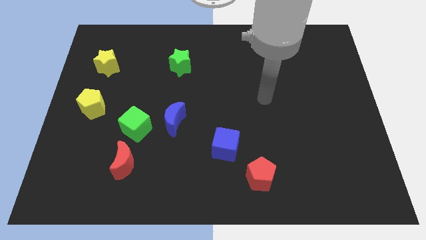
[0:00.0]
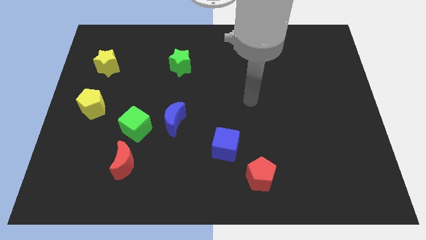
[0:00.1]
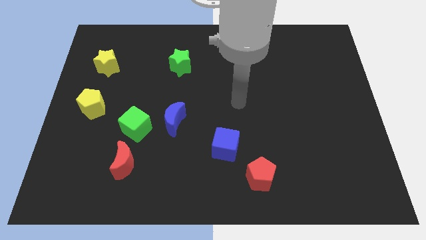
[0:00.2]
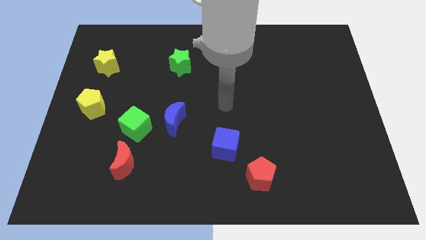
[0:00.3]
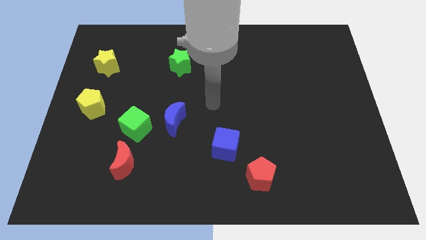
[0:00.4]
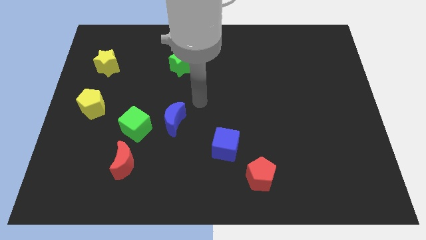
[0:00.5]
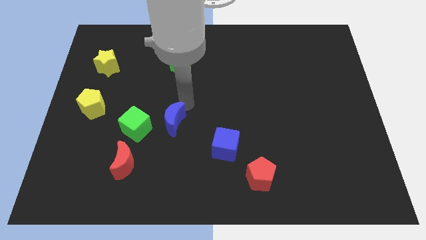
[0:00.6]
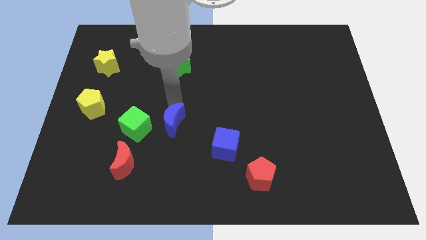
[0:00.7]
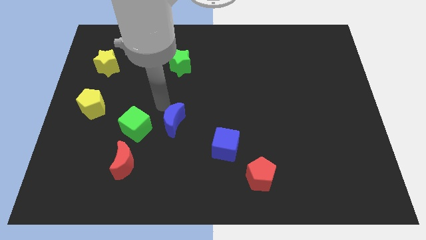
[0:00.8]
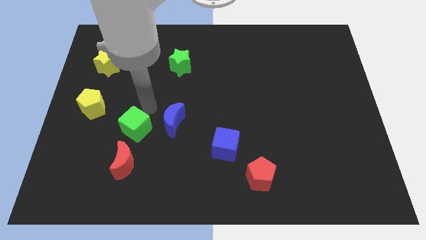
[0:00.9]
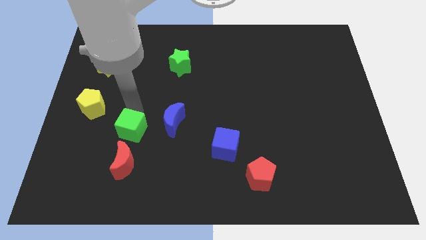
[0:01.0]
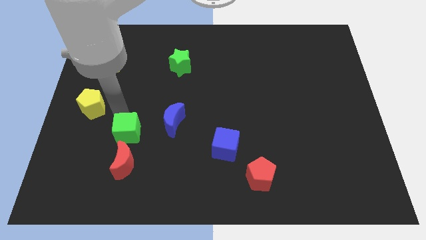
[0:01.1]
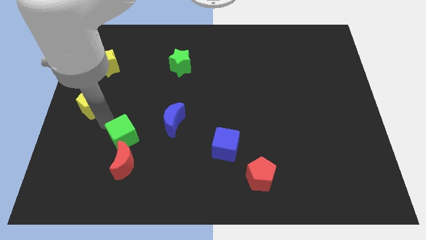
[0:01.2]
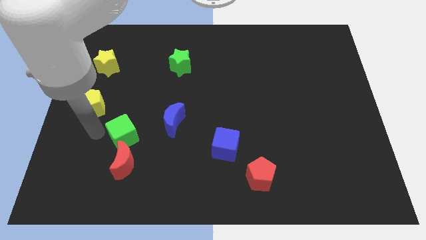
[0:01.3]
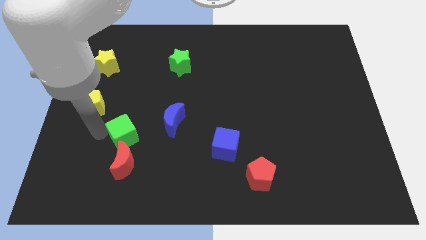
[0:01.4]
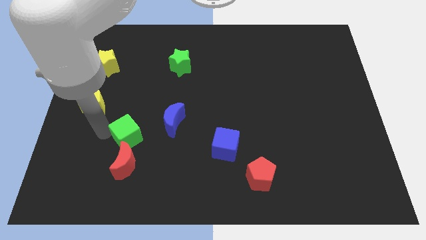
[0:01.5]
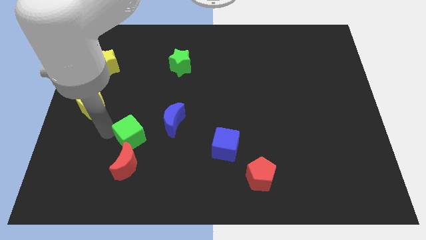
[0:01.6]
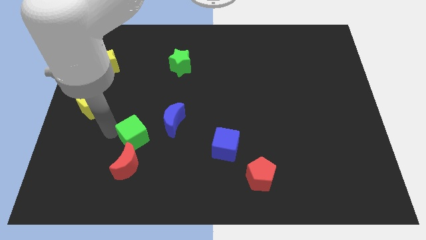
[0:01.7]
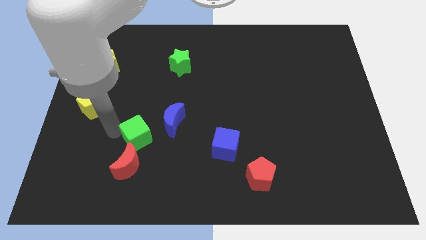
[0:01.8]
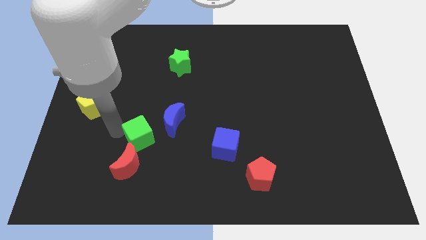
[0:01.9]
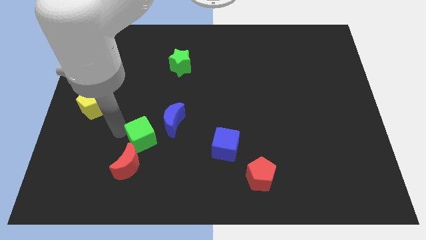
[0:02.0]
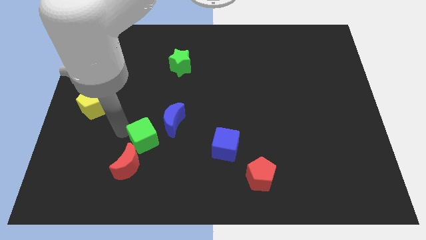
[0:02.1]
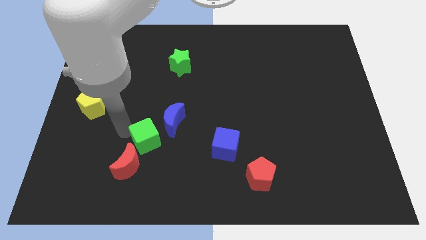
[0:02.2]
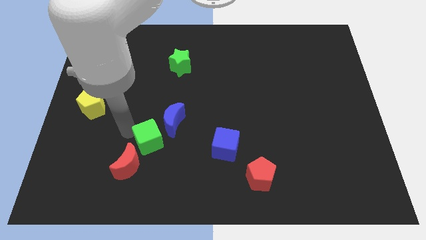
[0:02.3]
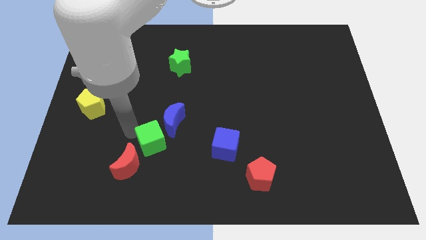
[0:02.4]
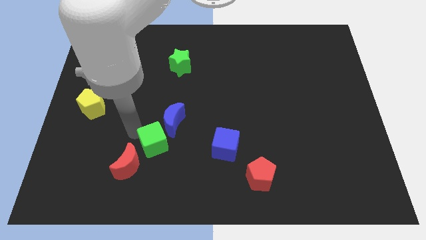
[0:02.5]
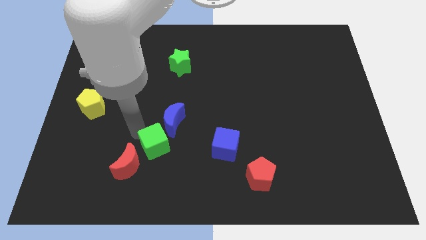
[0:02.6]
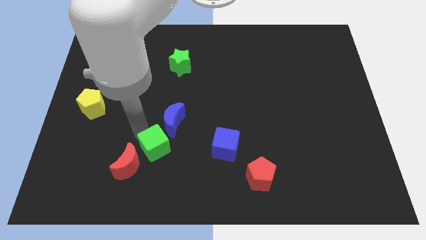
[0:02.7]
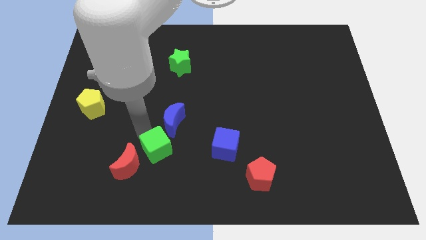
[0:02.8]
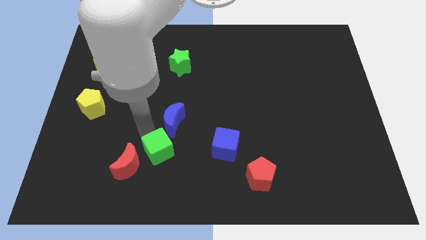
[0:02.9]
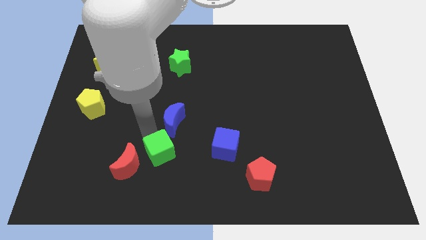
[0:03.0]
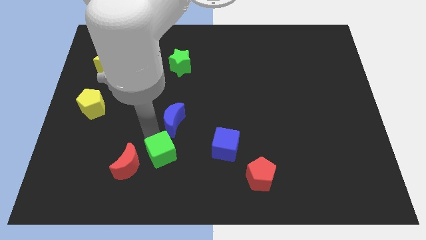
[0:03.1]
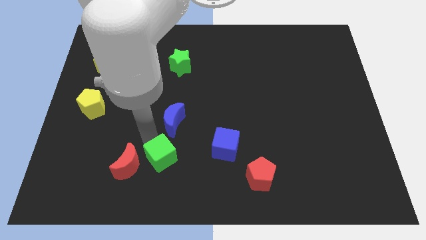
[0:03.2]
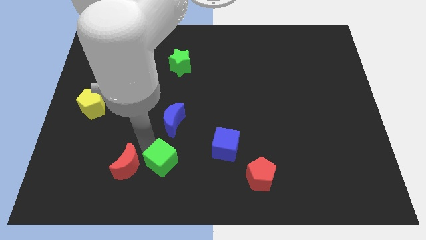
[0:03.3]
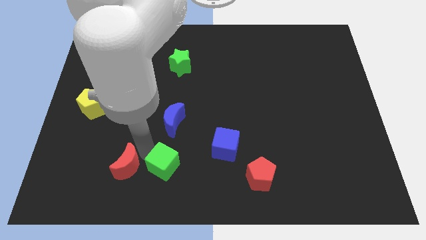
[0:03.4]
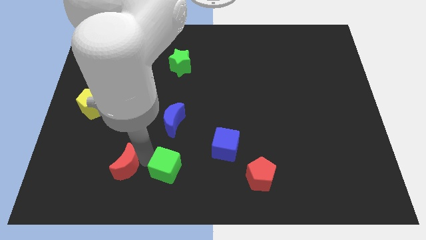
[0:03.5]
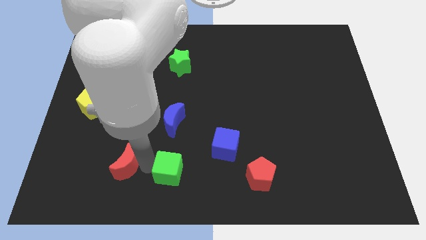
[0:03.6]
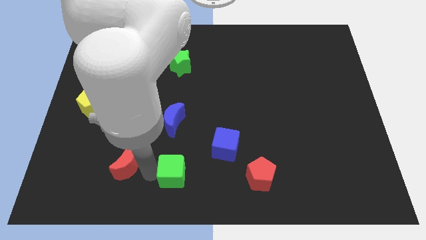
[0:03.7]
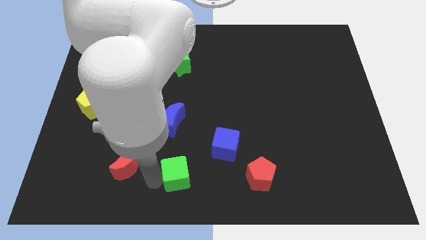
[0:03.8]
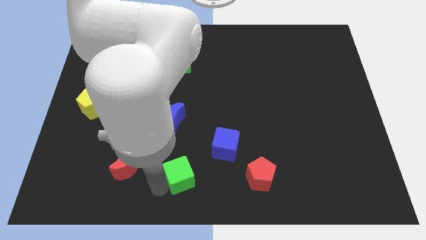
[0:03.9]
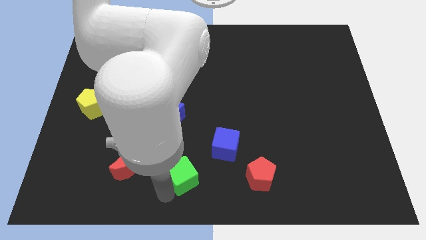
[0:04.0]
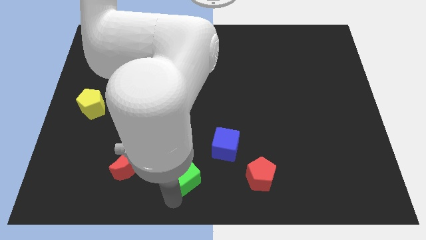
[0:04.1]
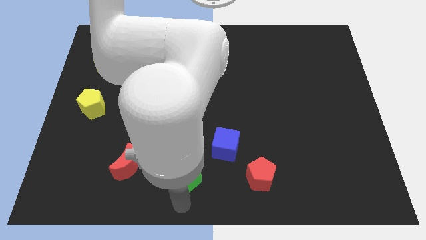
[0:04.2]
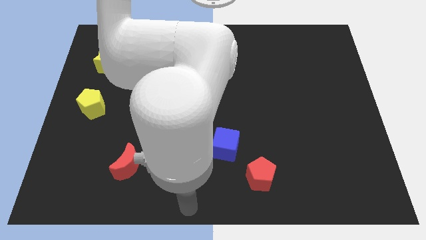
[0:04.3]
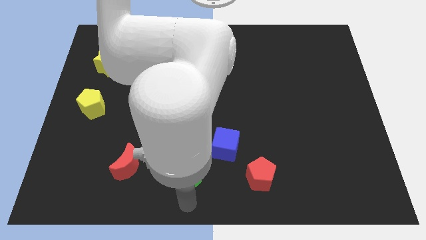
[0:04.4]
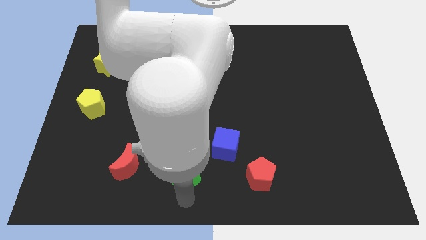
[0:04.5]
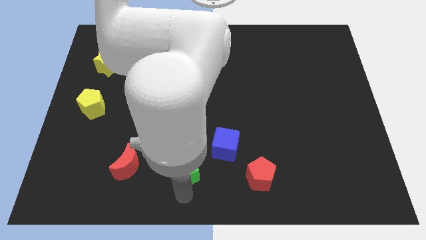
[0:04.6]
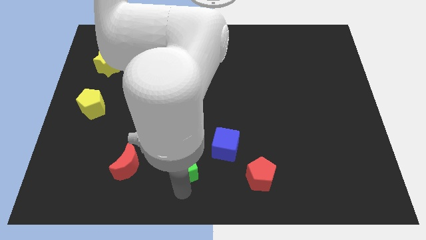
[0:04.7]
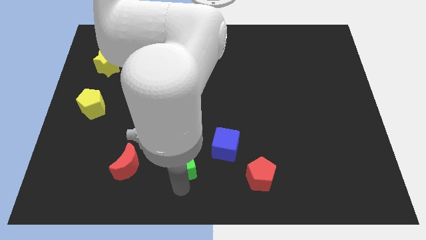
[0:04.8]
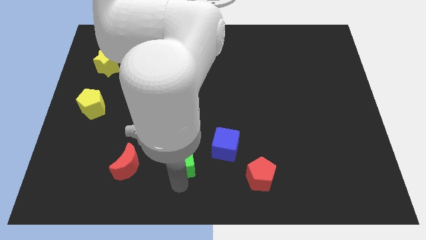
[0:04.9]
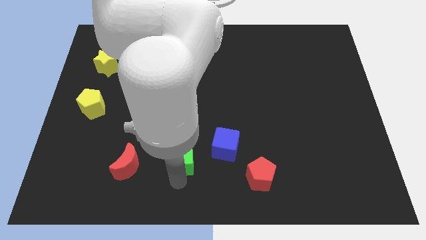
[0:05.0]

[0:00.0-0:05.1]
slide the green cube to the right a bit

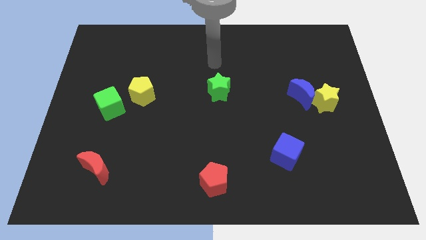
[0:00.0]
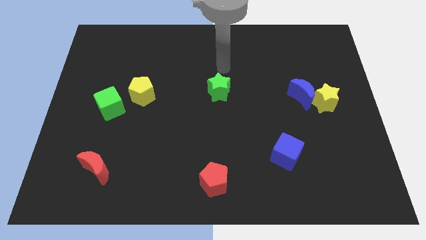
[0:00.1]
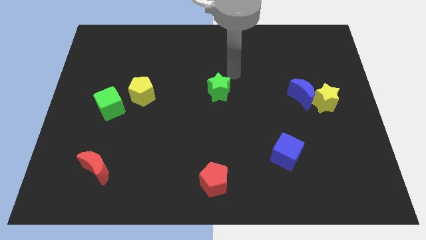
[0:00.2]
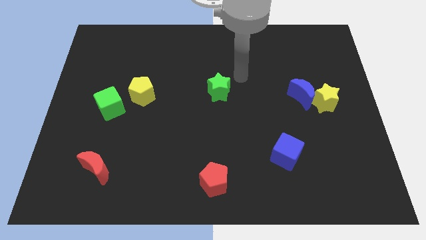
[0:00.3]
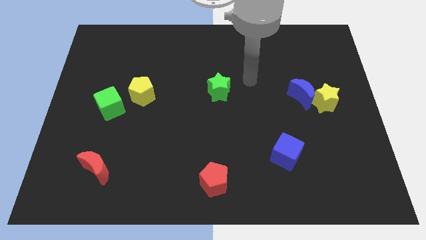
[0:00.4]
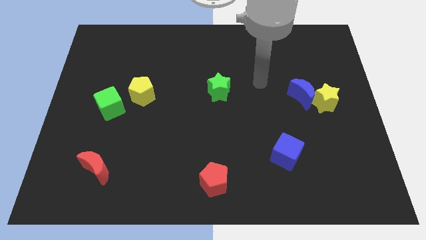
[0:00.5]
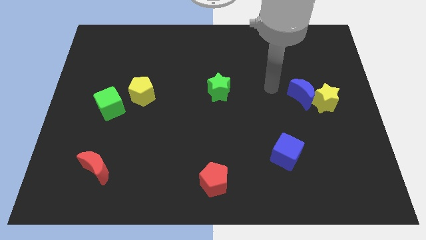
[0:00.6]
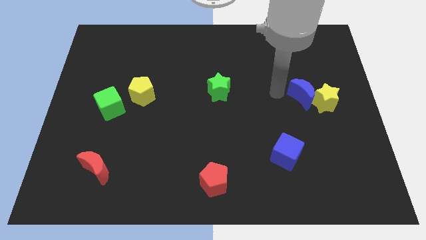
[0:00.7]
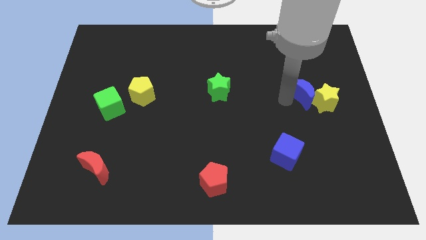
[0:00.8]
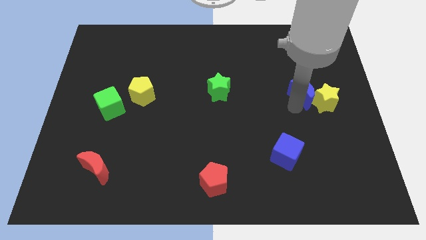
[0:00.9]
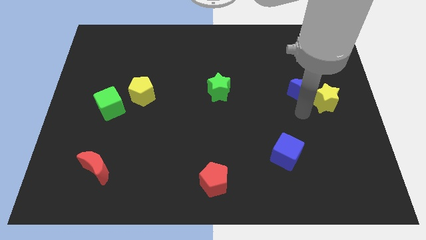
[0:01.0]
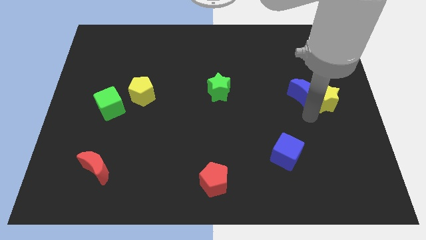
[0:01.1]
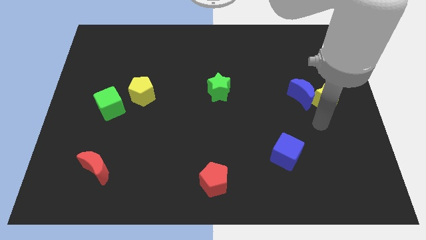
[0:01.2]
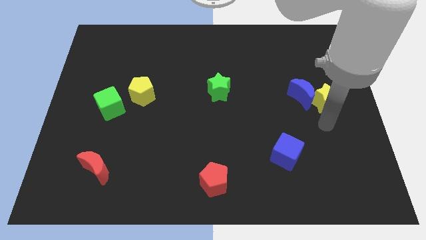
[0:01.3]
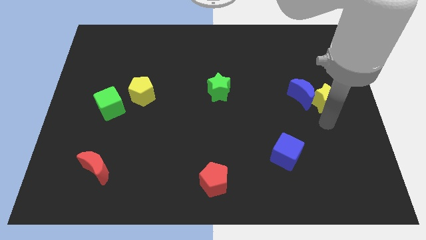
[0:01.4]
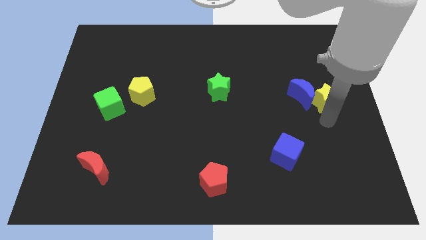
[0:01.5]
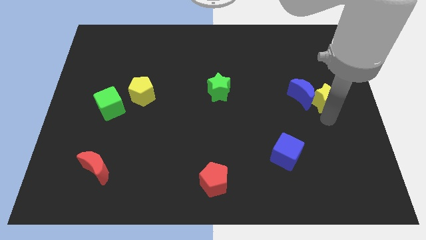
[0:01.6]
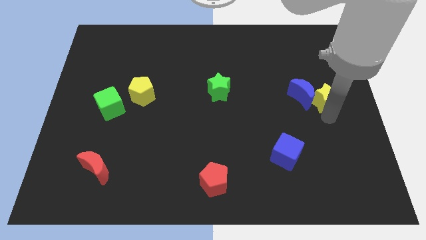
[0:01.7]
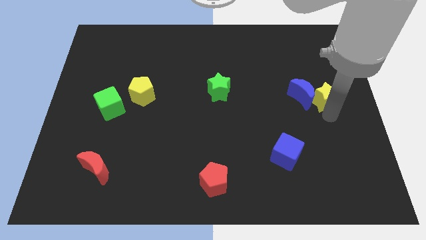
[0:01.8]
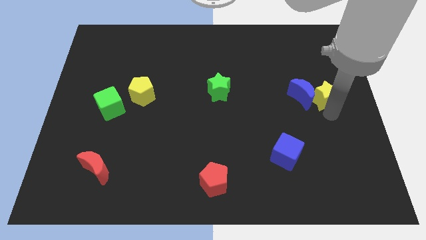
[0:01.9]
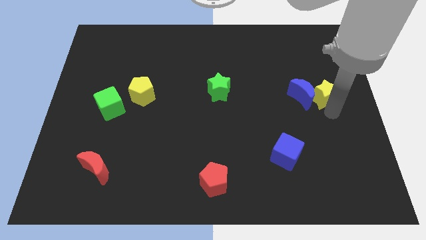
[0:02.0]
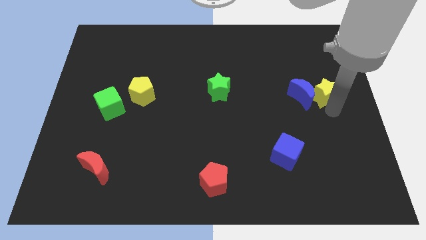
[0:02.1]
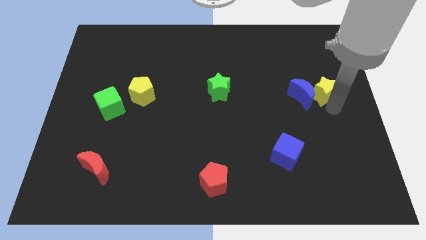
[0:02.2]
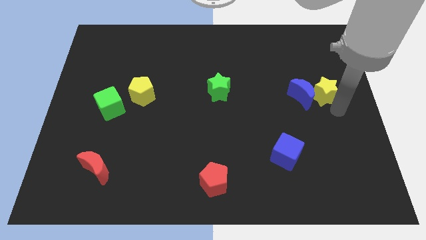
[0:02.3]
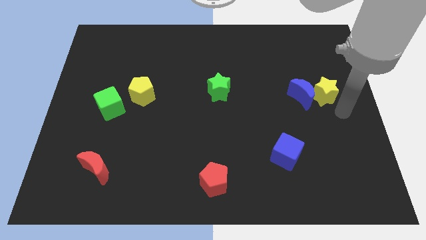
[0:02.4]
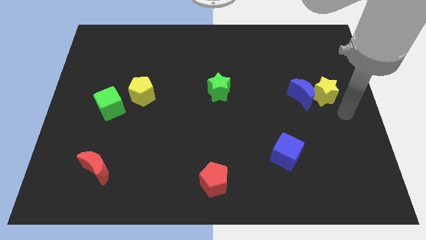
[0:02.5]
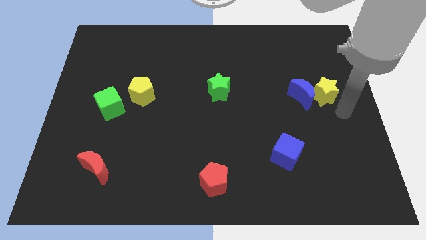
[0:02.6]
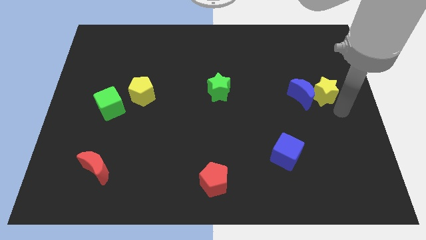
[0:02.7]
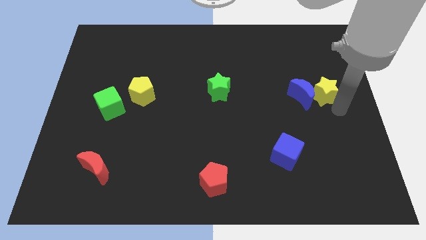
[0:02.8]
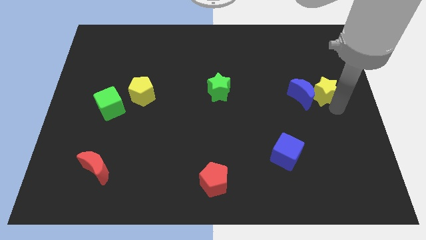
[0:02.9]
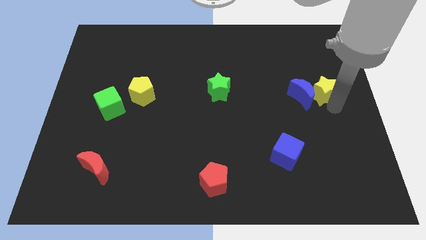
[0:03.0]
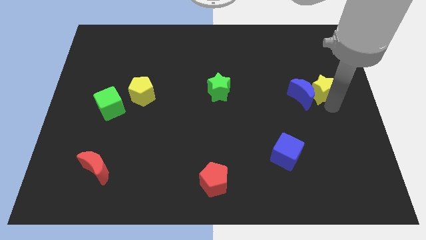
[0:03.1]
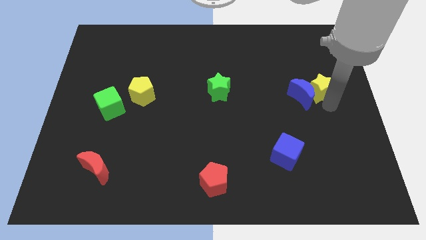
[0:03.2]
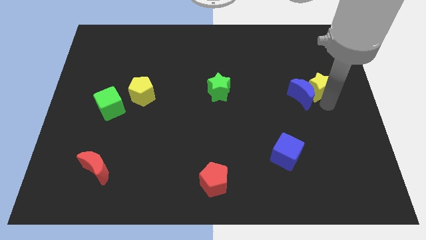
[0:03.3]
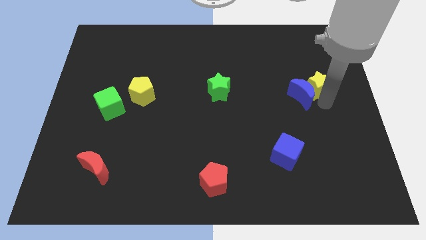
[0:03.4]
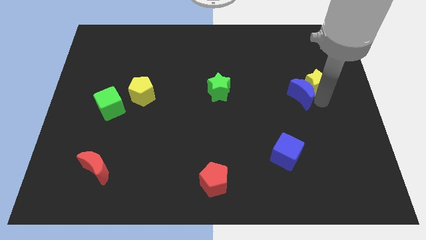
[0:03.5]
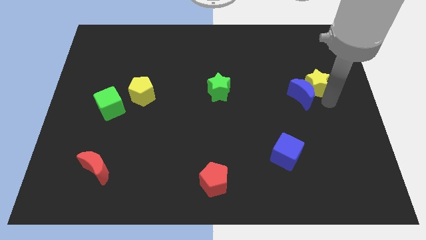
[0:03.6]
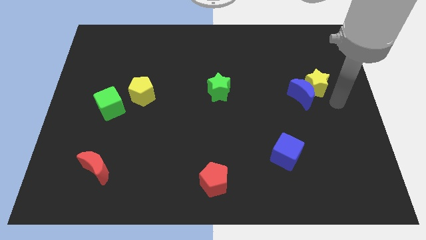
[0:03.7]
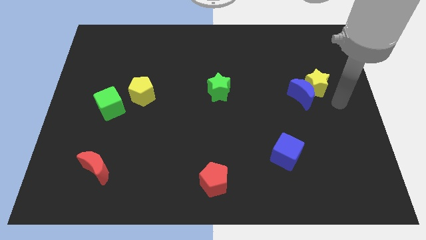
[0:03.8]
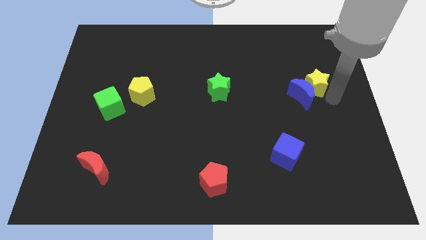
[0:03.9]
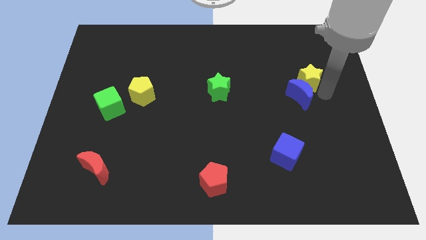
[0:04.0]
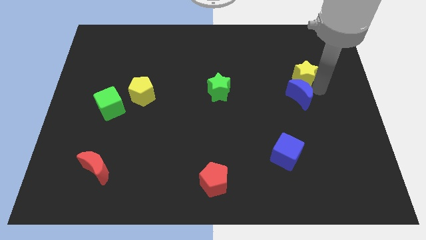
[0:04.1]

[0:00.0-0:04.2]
slightly move the yellow star upwards and left diagonally
